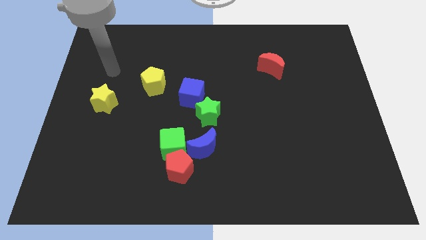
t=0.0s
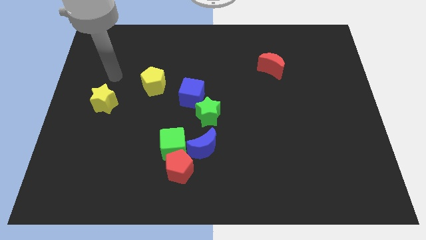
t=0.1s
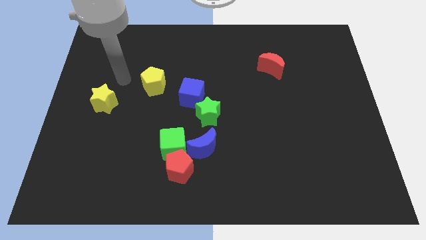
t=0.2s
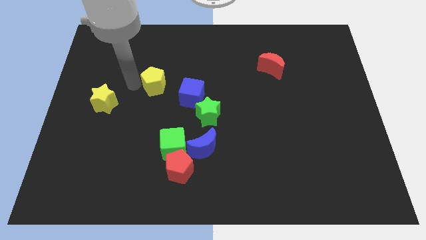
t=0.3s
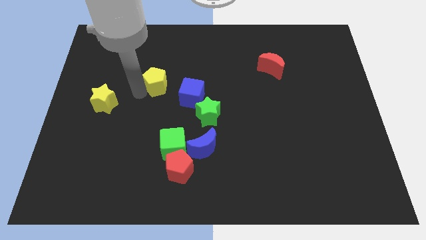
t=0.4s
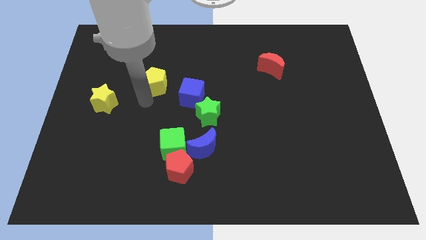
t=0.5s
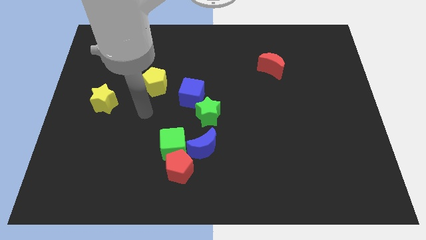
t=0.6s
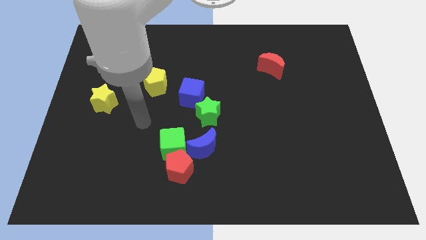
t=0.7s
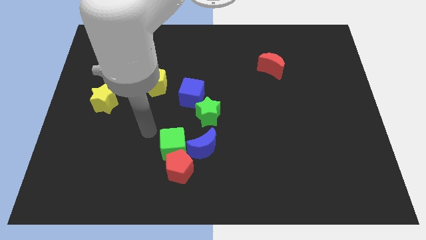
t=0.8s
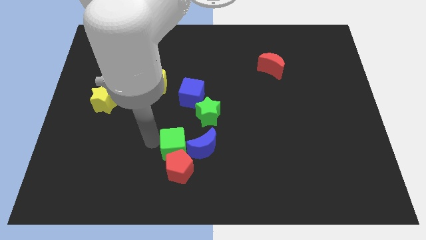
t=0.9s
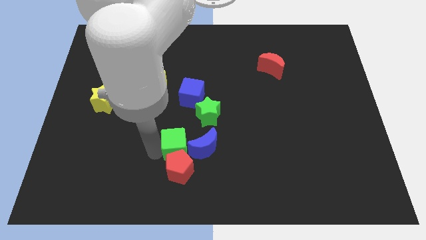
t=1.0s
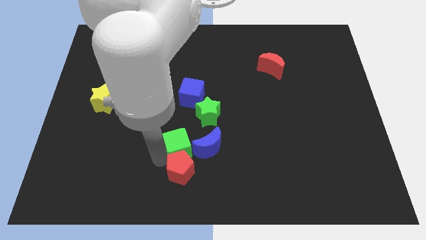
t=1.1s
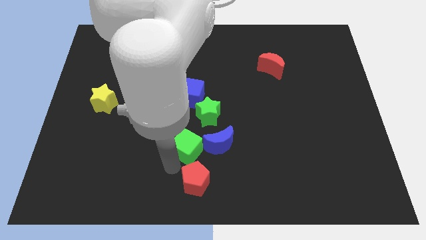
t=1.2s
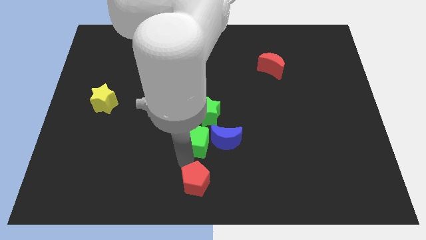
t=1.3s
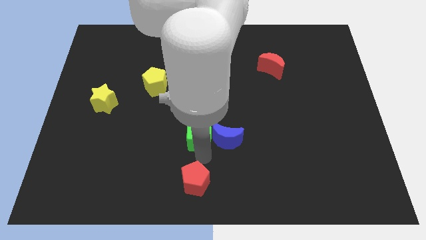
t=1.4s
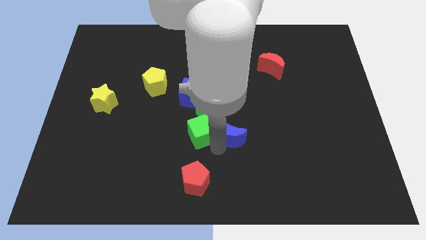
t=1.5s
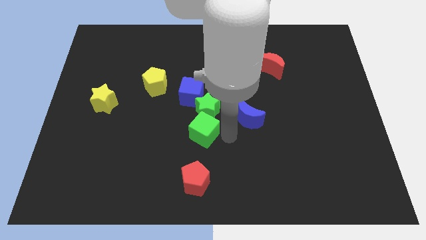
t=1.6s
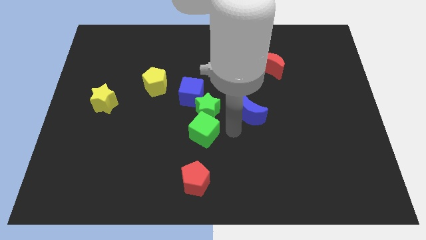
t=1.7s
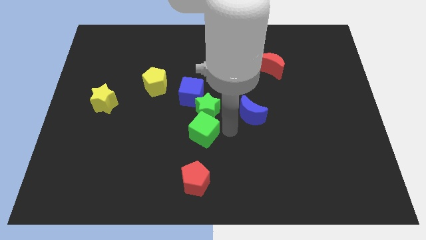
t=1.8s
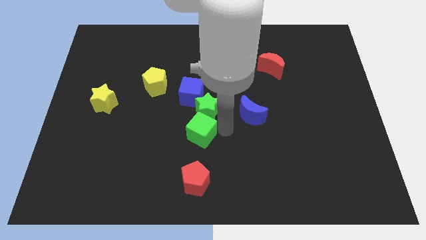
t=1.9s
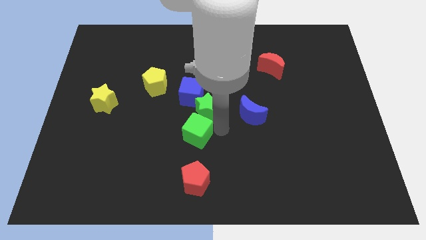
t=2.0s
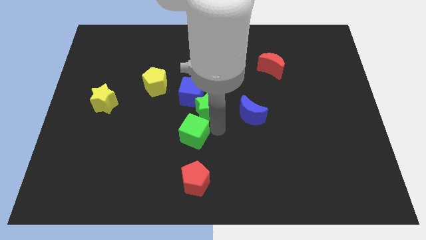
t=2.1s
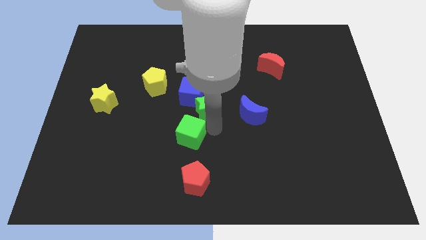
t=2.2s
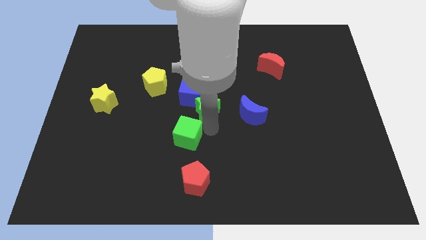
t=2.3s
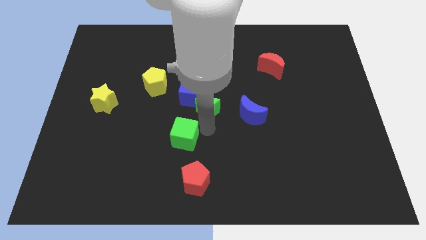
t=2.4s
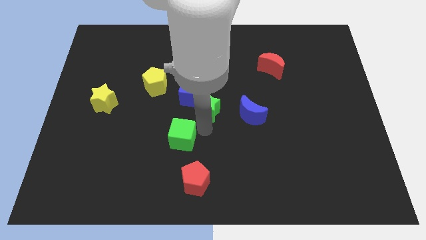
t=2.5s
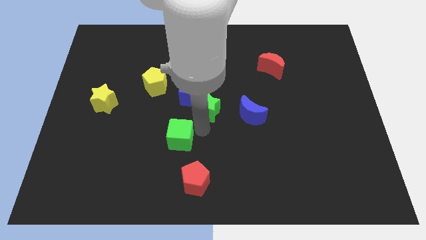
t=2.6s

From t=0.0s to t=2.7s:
separate the green cube from the red pentagon and blue moon

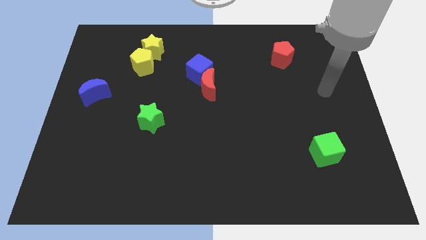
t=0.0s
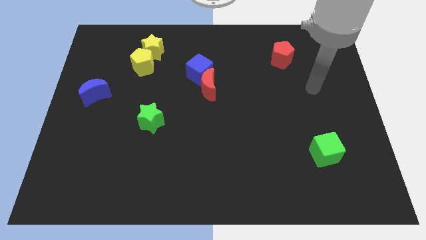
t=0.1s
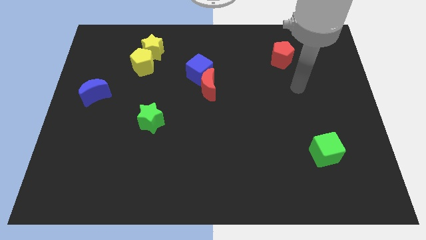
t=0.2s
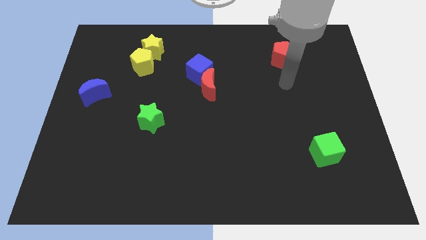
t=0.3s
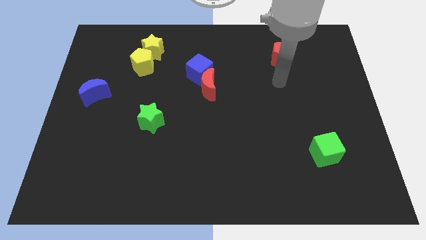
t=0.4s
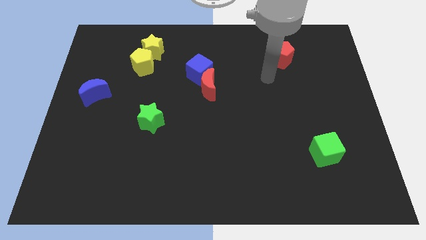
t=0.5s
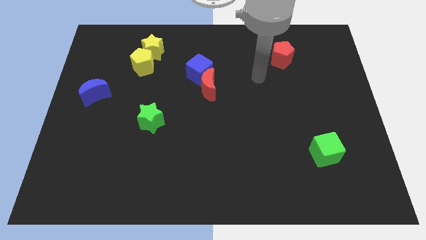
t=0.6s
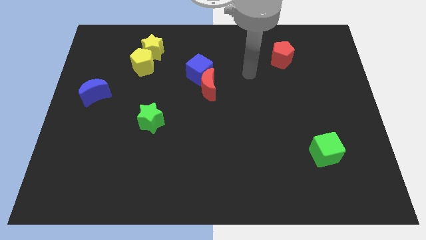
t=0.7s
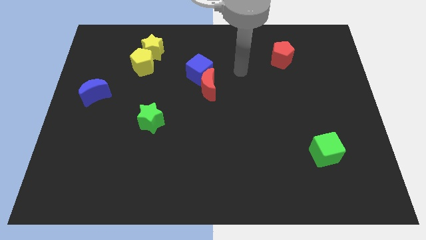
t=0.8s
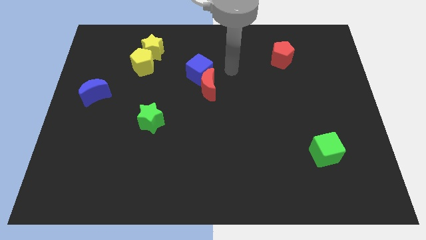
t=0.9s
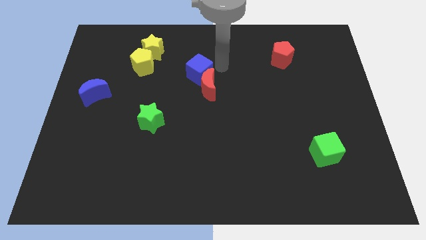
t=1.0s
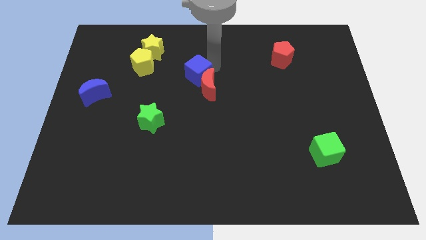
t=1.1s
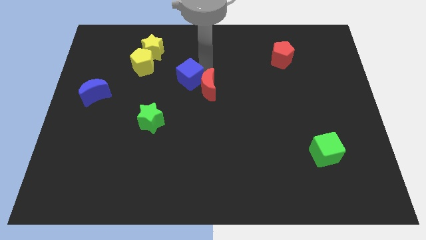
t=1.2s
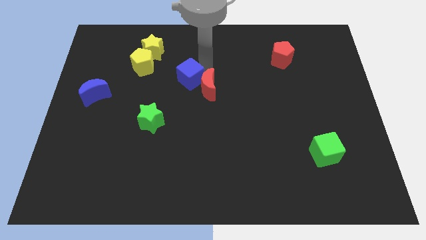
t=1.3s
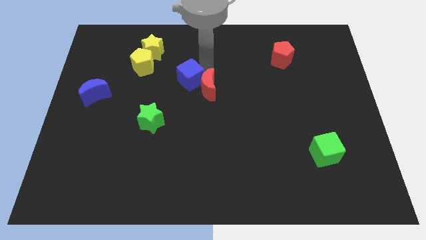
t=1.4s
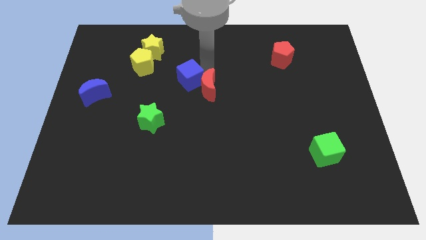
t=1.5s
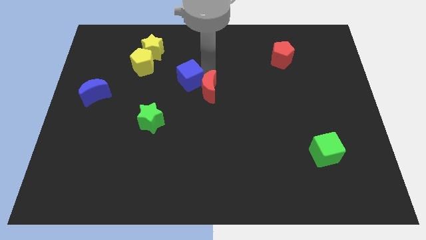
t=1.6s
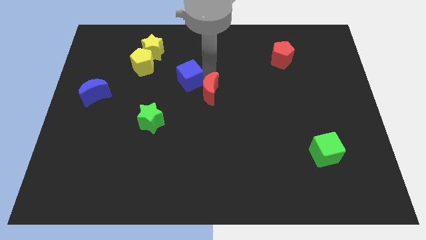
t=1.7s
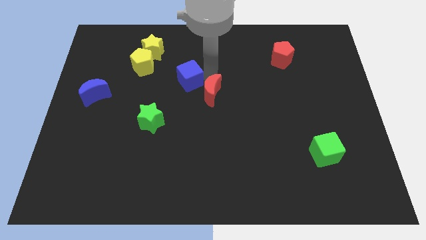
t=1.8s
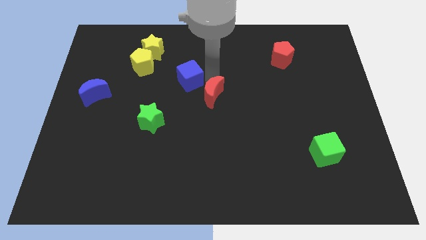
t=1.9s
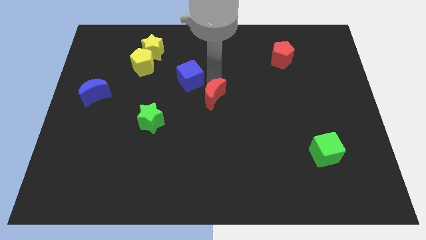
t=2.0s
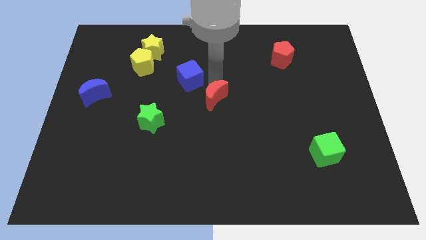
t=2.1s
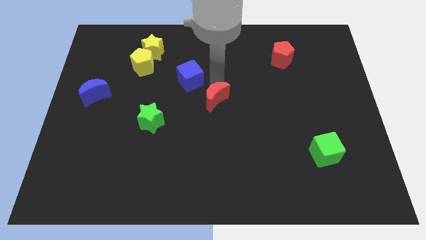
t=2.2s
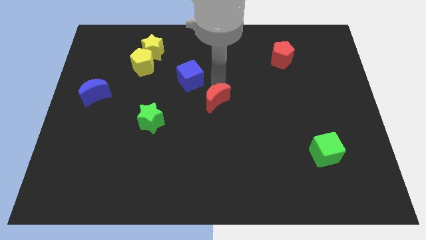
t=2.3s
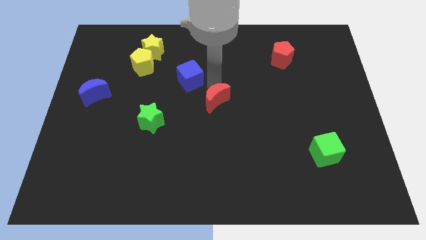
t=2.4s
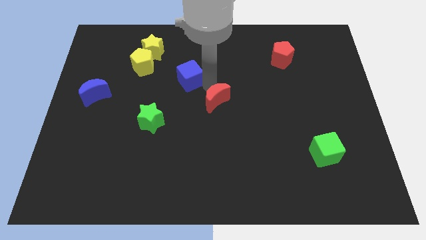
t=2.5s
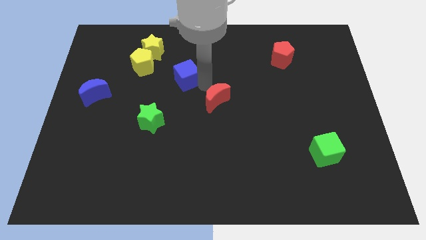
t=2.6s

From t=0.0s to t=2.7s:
pull the red moon apart from the blue cube

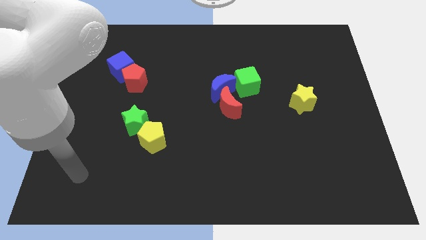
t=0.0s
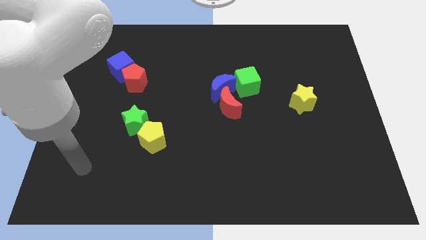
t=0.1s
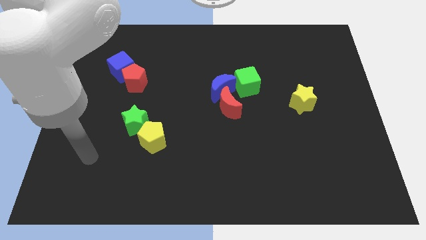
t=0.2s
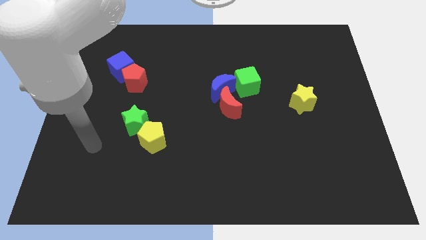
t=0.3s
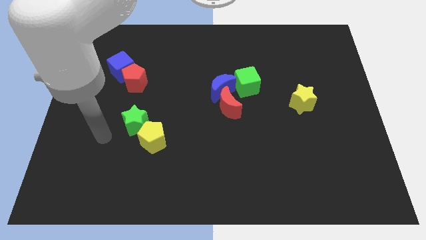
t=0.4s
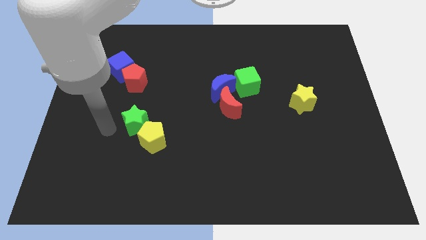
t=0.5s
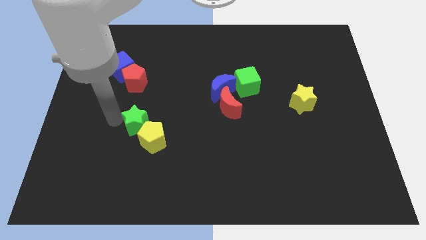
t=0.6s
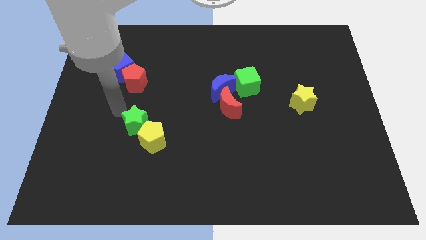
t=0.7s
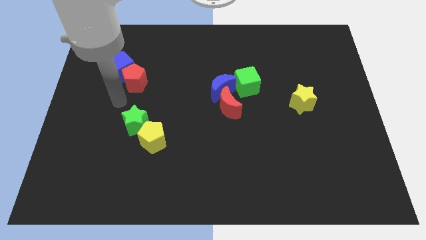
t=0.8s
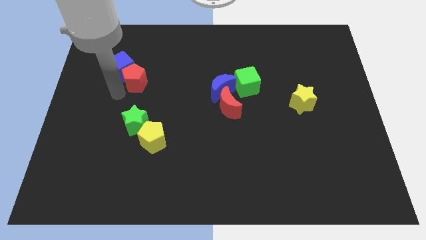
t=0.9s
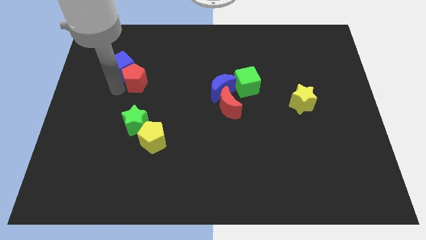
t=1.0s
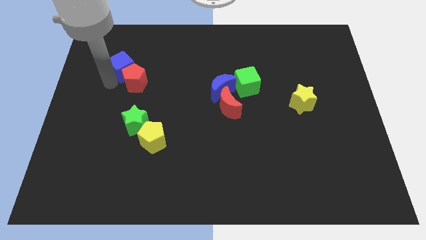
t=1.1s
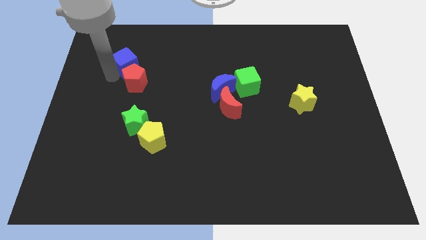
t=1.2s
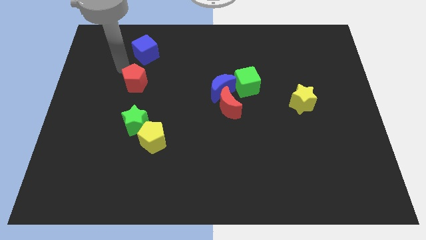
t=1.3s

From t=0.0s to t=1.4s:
pull the red pentagon apart from the blue cube

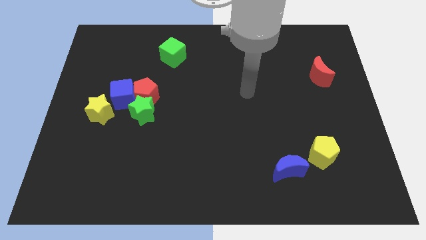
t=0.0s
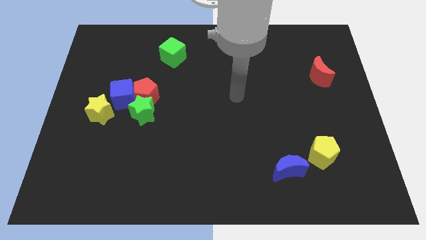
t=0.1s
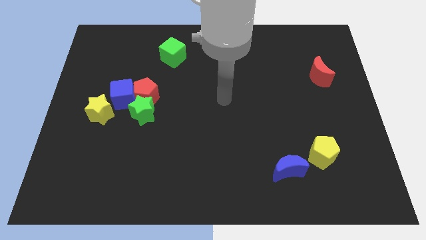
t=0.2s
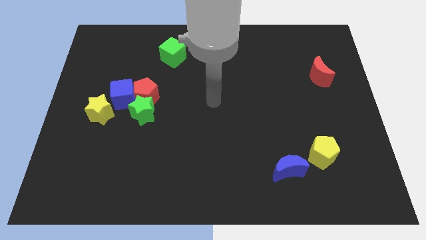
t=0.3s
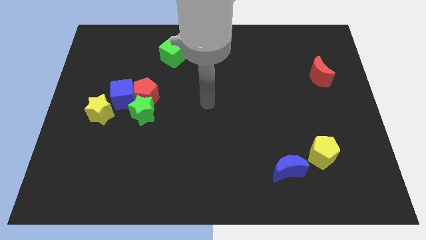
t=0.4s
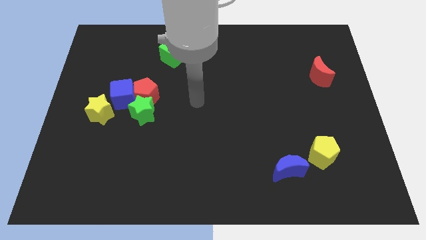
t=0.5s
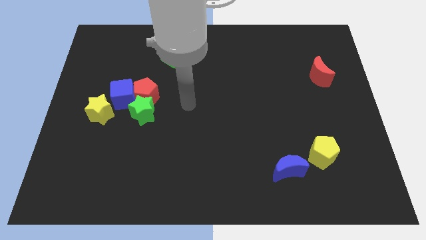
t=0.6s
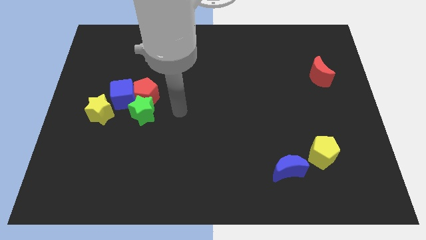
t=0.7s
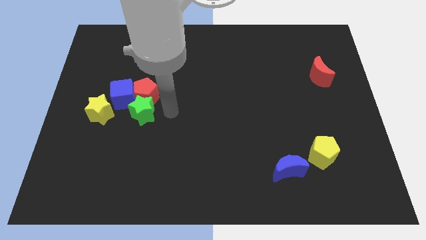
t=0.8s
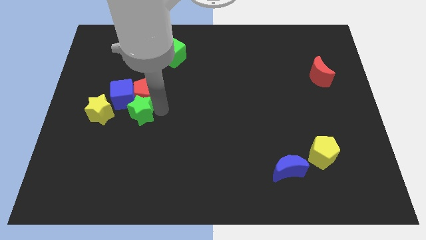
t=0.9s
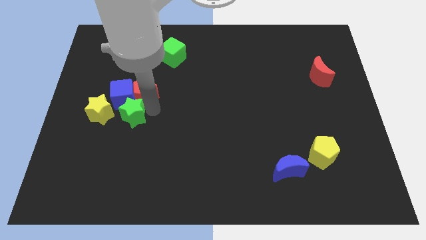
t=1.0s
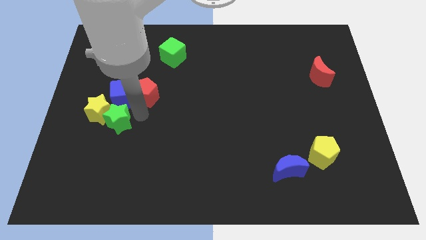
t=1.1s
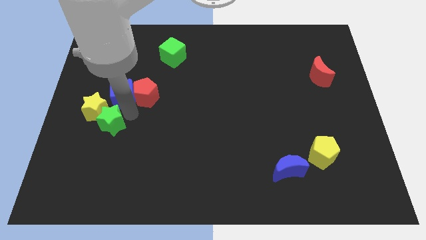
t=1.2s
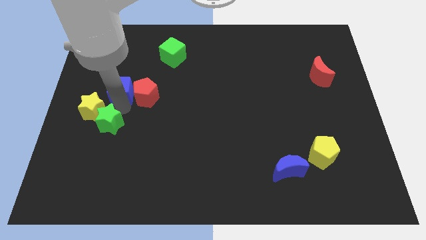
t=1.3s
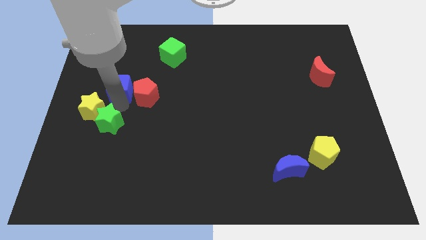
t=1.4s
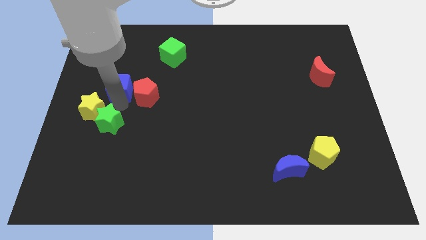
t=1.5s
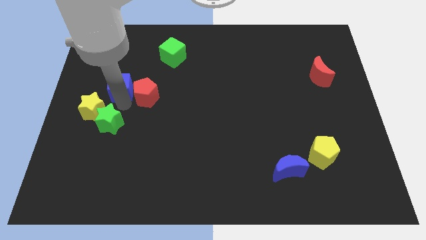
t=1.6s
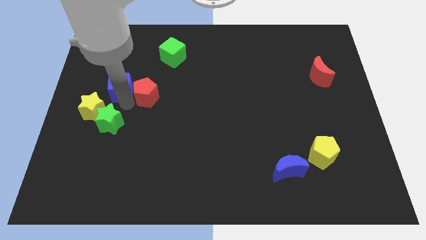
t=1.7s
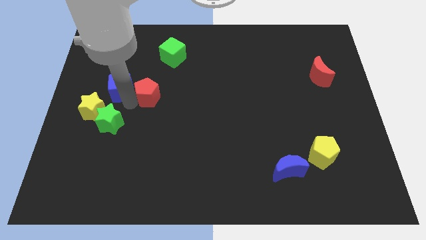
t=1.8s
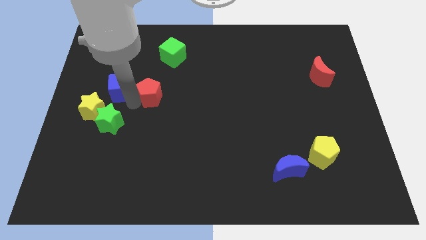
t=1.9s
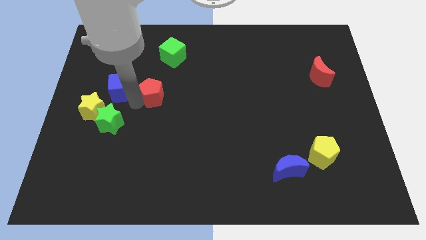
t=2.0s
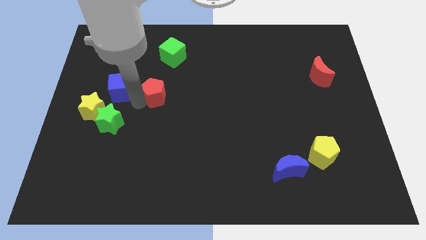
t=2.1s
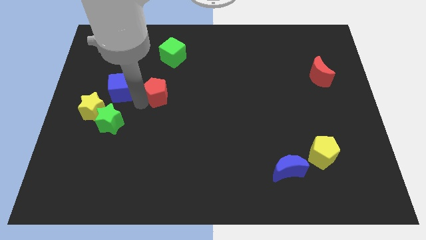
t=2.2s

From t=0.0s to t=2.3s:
pull the red pentagon apart from the green star and blue cube

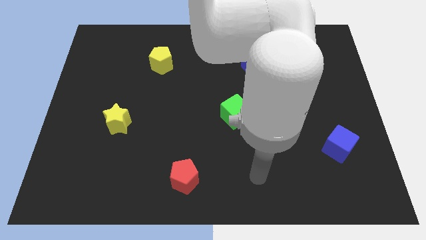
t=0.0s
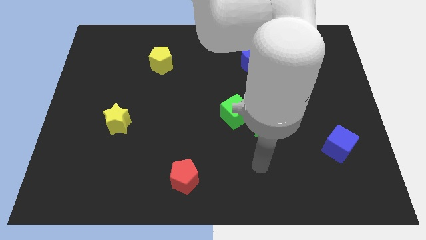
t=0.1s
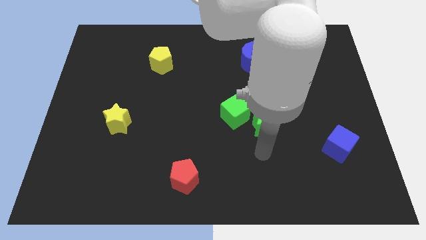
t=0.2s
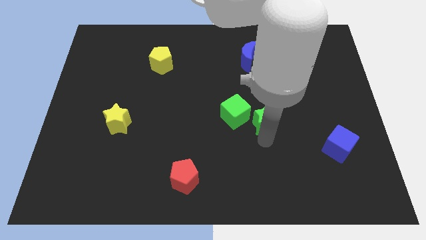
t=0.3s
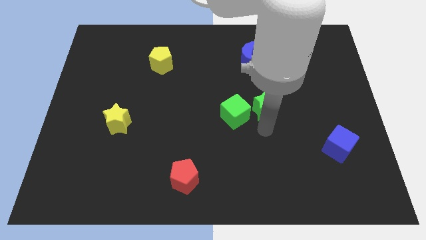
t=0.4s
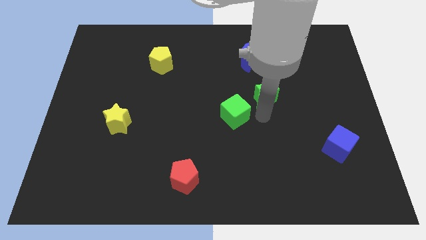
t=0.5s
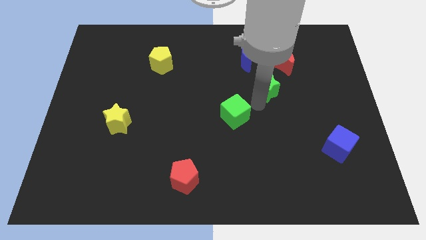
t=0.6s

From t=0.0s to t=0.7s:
move the green cube away from the green star
